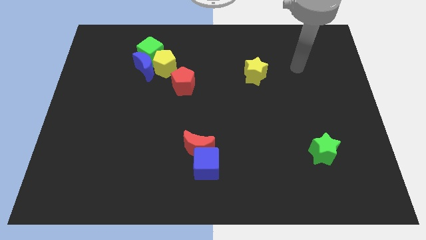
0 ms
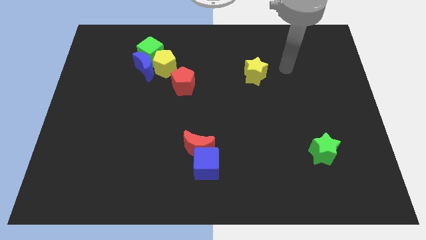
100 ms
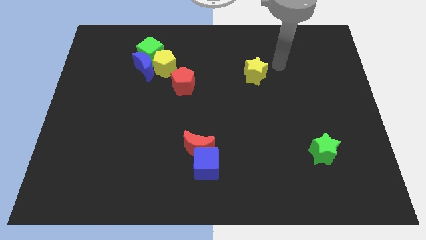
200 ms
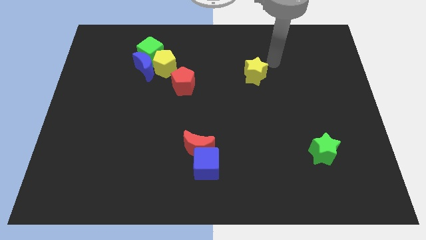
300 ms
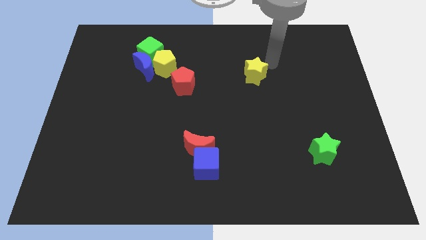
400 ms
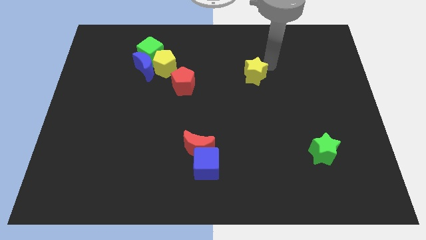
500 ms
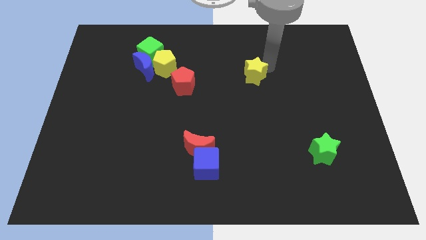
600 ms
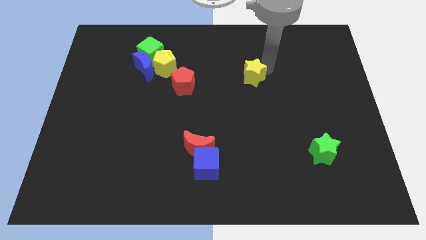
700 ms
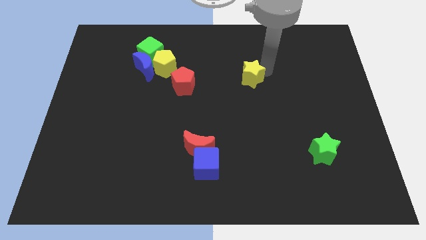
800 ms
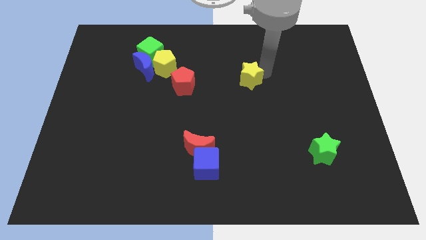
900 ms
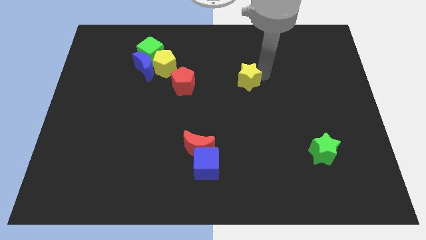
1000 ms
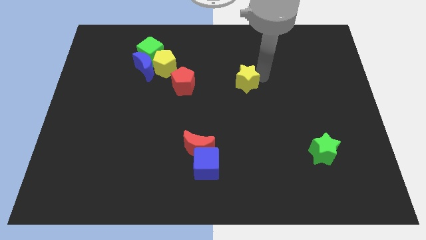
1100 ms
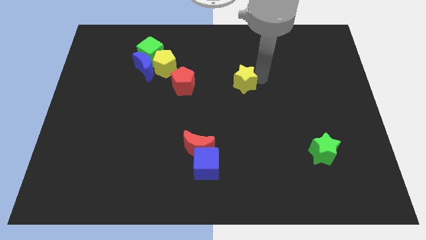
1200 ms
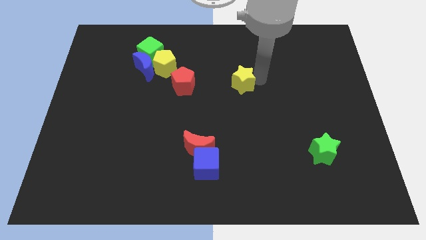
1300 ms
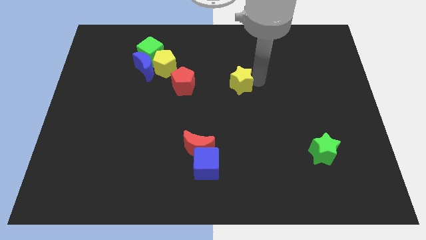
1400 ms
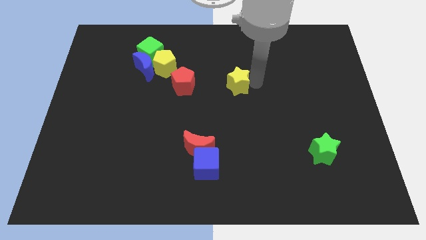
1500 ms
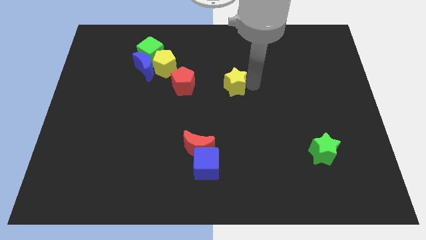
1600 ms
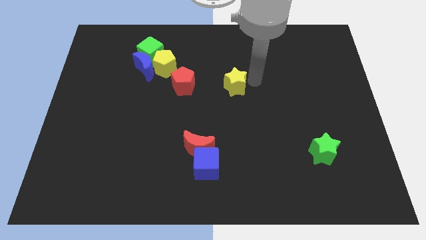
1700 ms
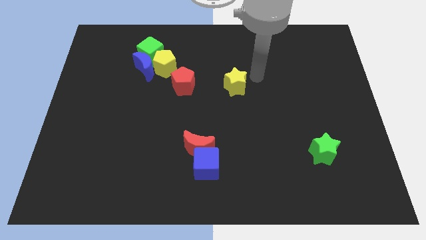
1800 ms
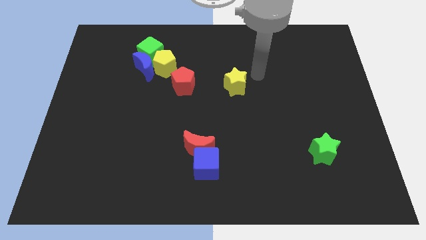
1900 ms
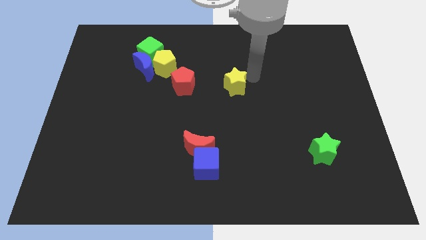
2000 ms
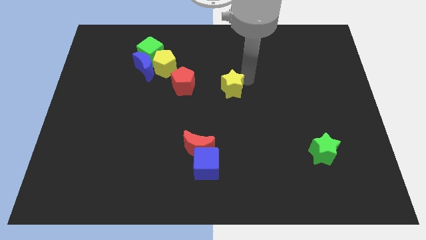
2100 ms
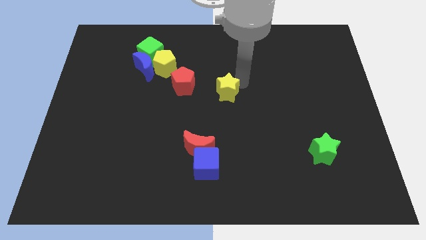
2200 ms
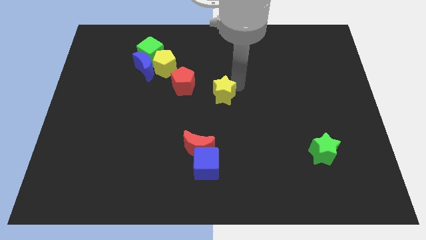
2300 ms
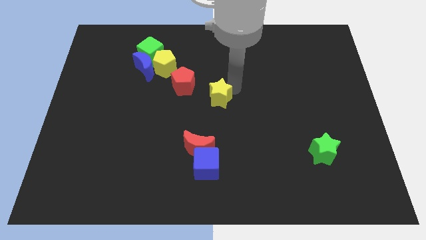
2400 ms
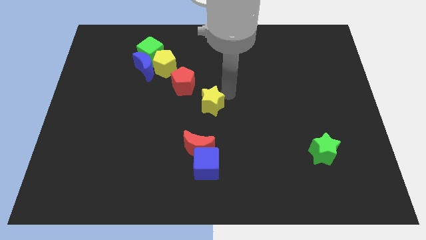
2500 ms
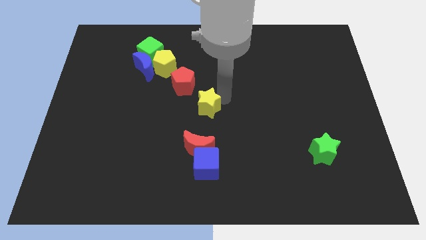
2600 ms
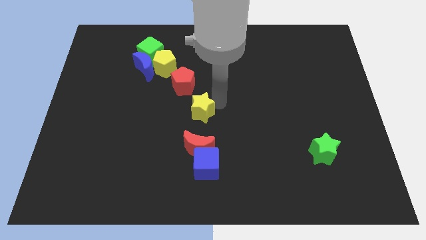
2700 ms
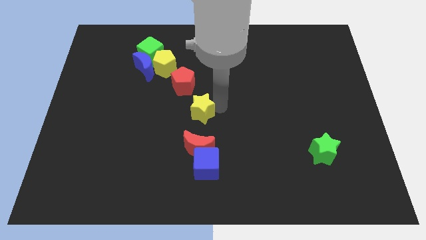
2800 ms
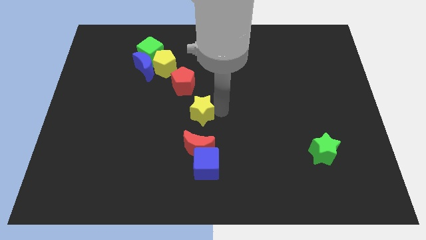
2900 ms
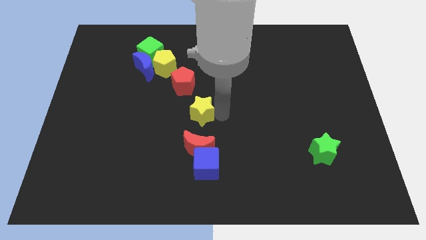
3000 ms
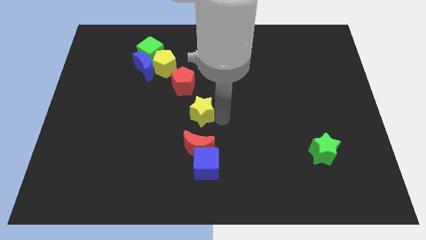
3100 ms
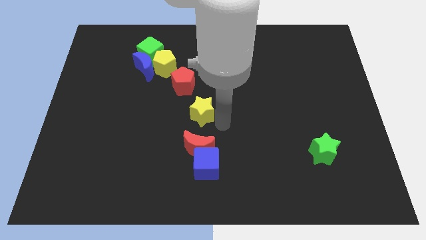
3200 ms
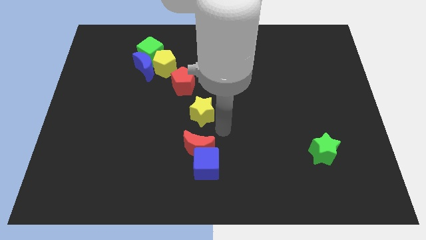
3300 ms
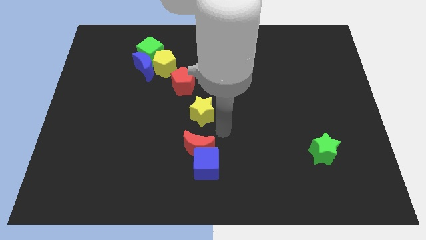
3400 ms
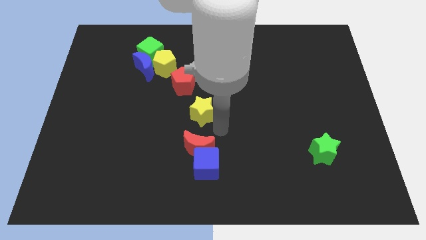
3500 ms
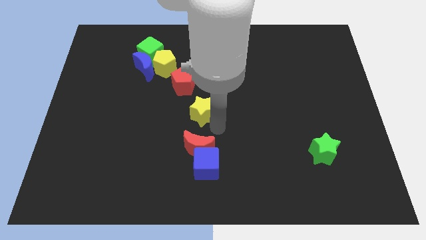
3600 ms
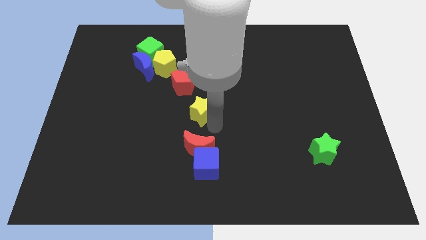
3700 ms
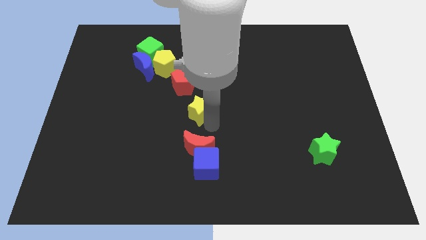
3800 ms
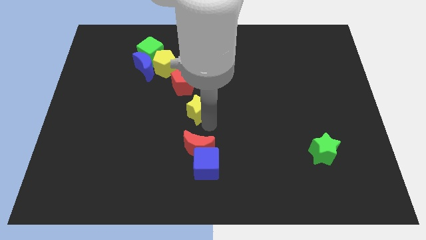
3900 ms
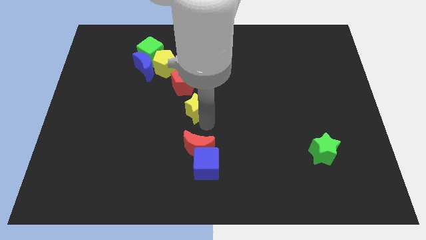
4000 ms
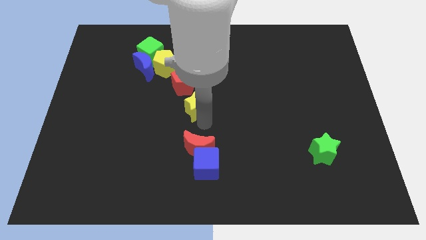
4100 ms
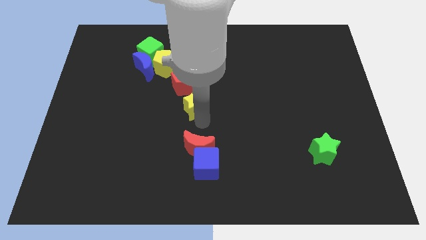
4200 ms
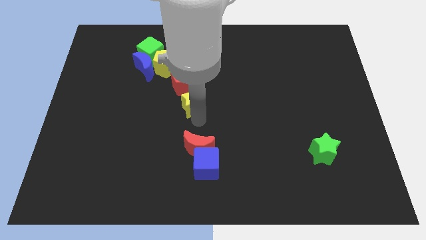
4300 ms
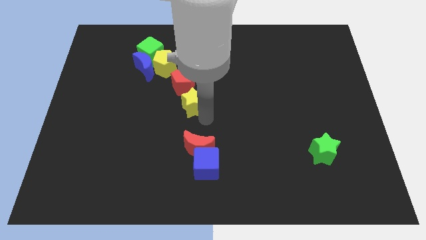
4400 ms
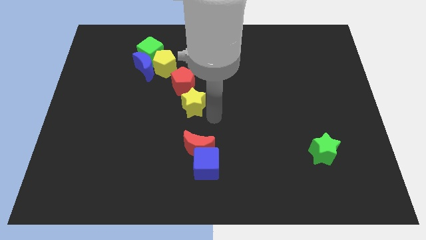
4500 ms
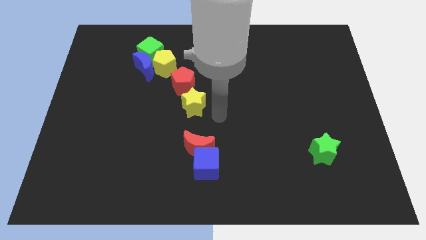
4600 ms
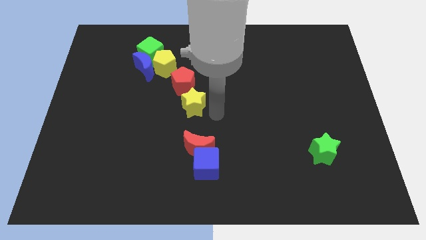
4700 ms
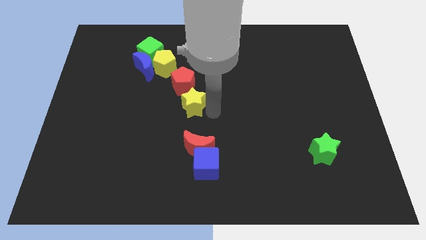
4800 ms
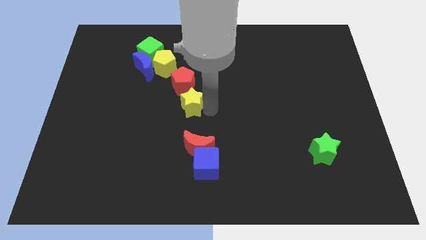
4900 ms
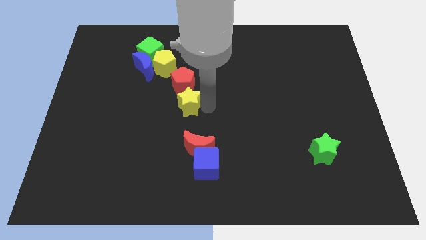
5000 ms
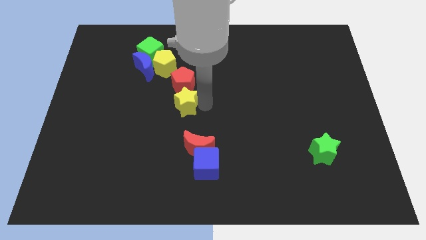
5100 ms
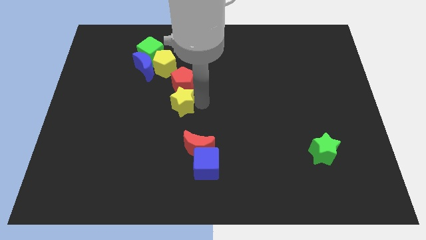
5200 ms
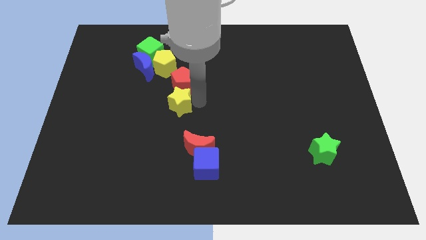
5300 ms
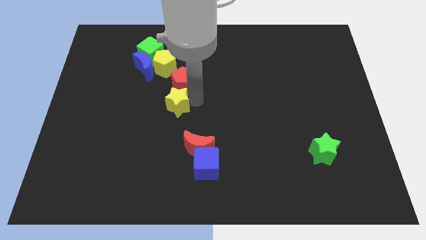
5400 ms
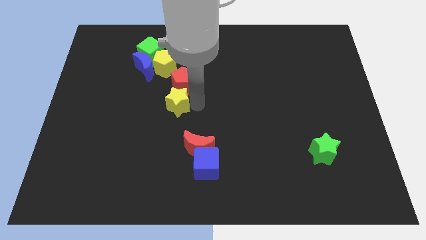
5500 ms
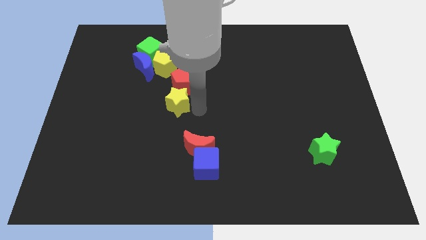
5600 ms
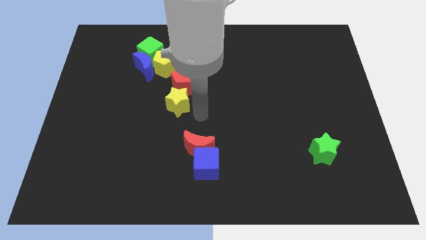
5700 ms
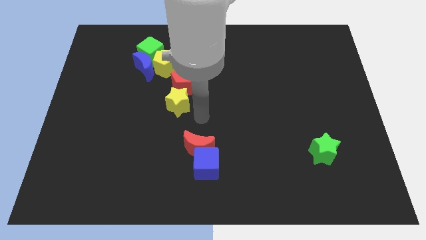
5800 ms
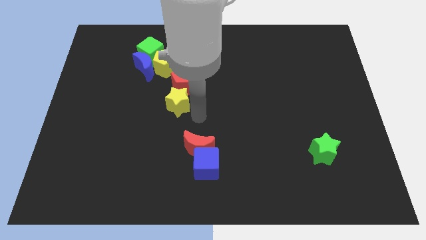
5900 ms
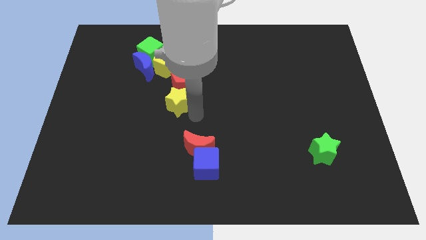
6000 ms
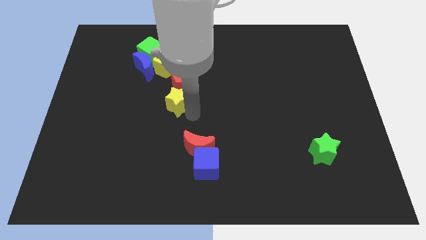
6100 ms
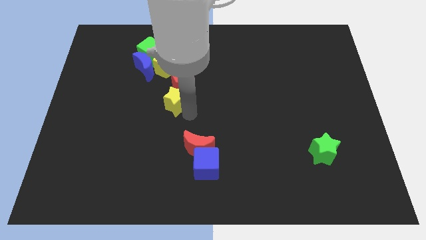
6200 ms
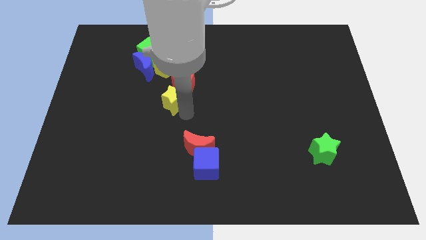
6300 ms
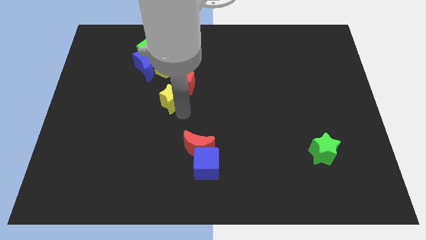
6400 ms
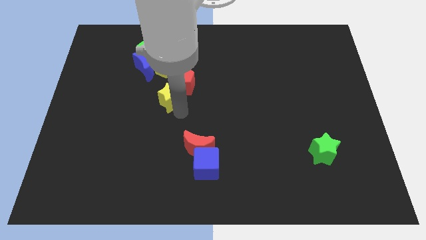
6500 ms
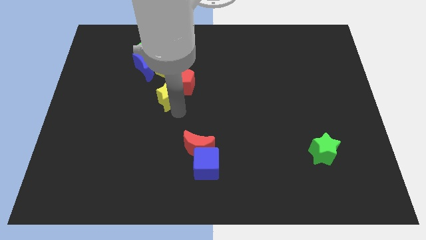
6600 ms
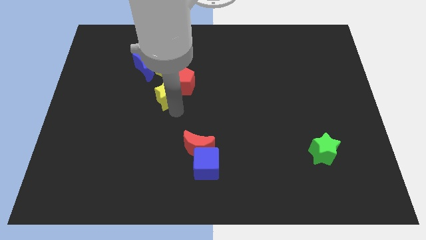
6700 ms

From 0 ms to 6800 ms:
slide the yellow star to the left of the red pentagon
